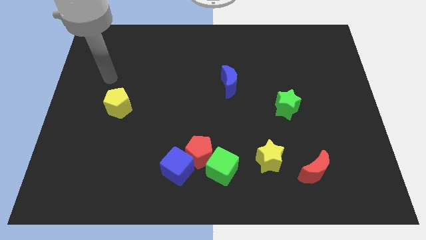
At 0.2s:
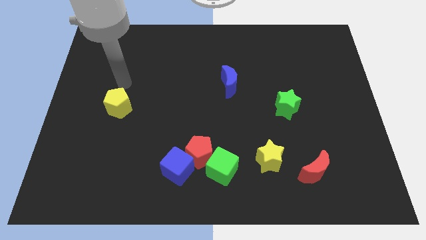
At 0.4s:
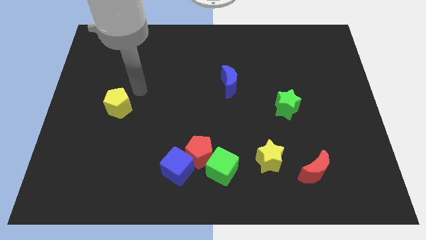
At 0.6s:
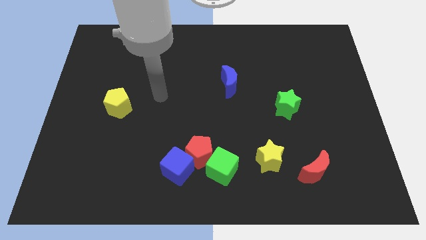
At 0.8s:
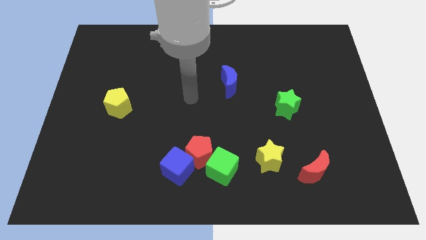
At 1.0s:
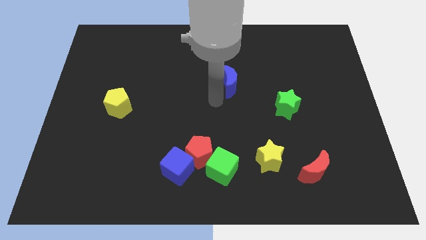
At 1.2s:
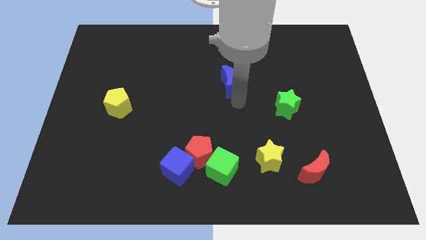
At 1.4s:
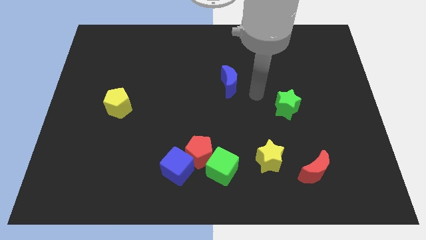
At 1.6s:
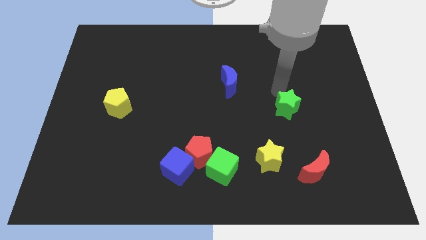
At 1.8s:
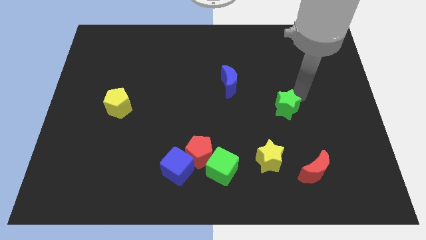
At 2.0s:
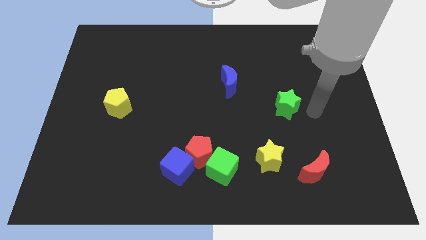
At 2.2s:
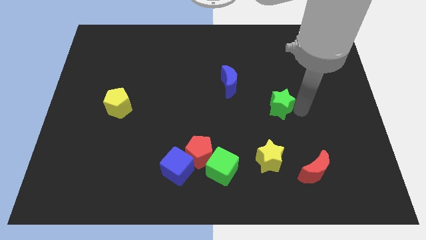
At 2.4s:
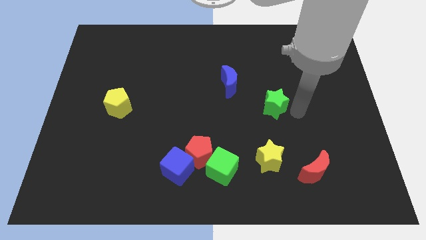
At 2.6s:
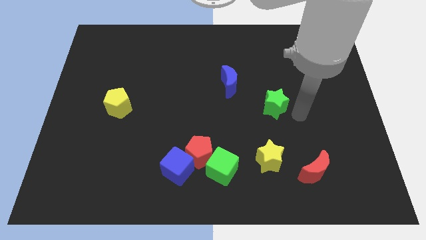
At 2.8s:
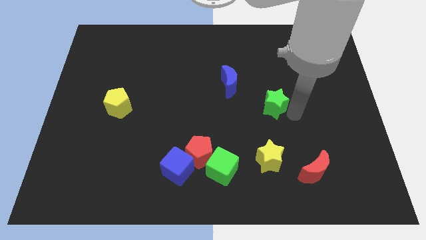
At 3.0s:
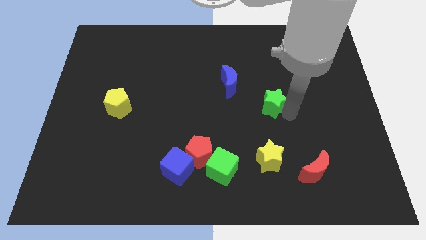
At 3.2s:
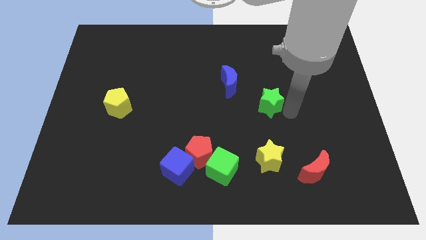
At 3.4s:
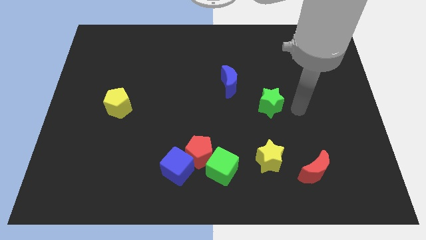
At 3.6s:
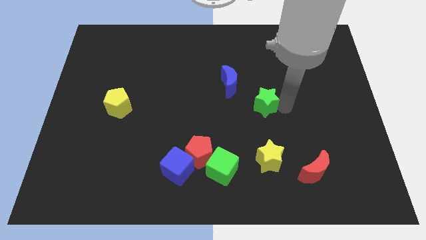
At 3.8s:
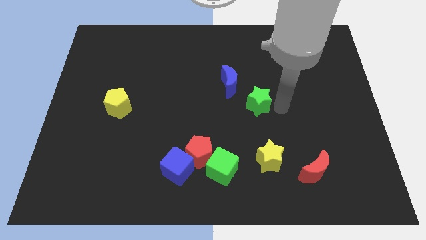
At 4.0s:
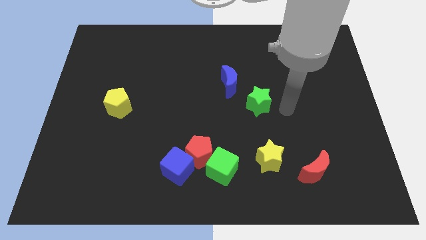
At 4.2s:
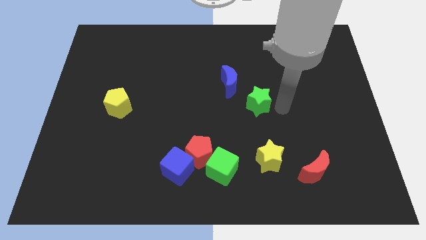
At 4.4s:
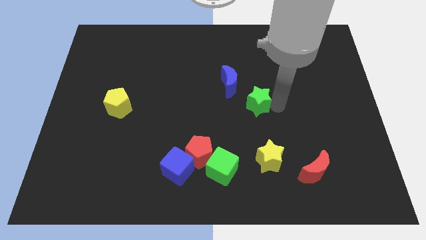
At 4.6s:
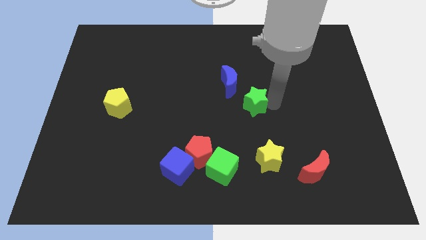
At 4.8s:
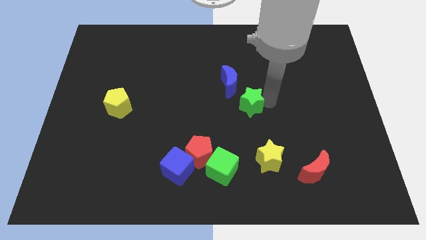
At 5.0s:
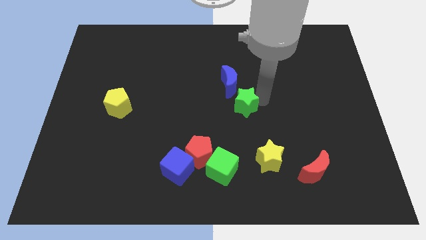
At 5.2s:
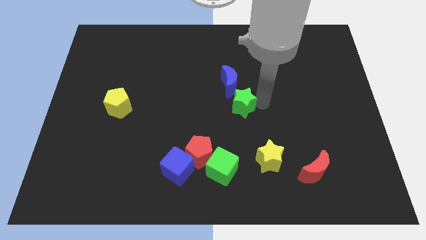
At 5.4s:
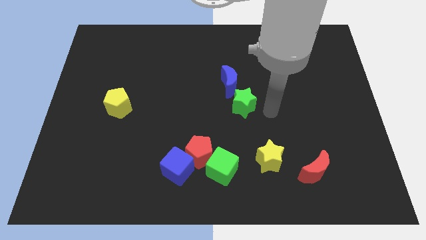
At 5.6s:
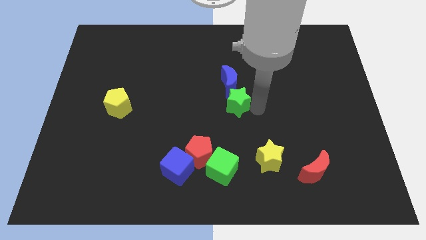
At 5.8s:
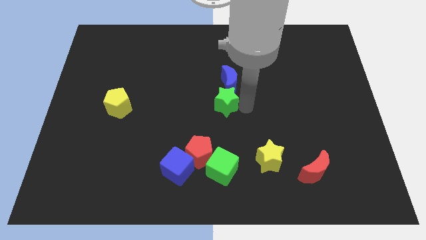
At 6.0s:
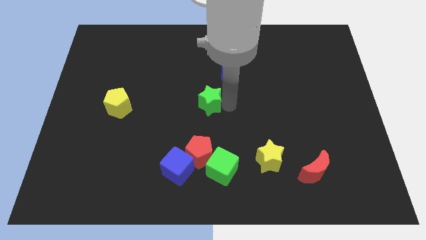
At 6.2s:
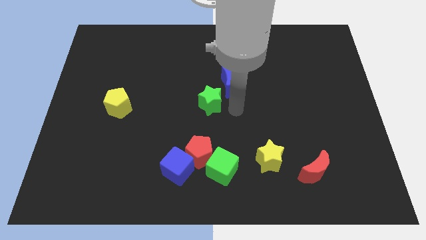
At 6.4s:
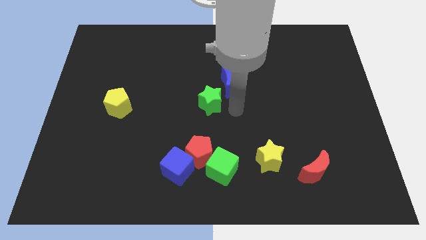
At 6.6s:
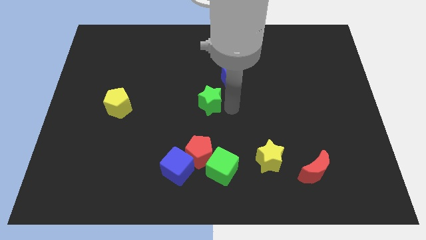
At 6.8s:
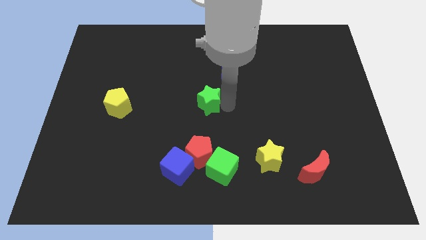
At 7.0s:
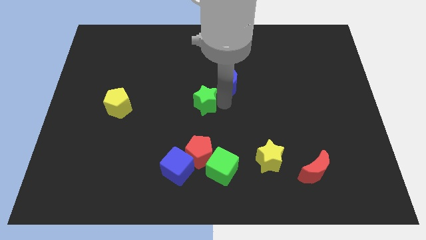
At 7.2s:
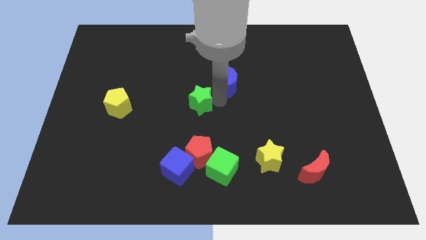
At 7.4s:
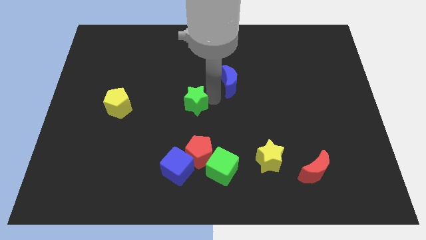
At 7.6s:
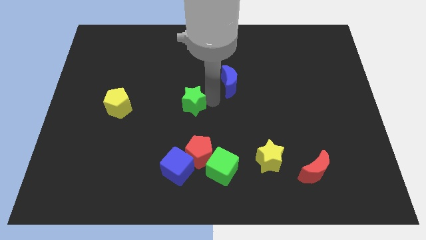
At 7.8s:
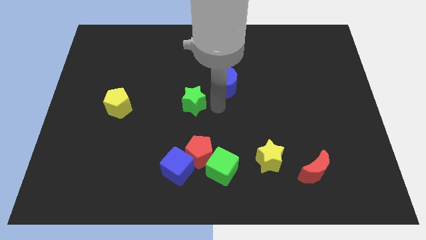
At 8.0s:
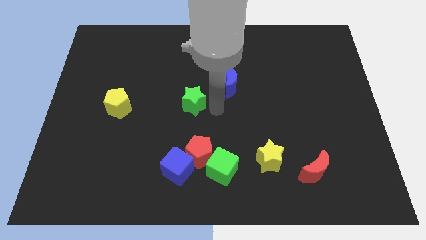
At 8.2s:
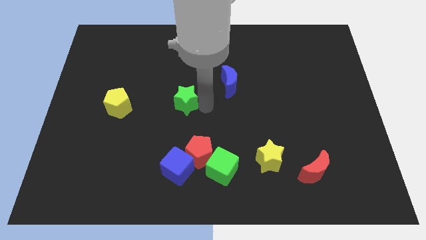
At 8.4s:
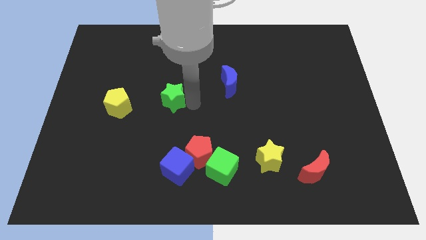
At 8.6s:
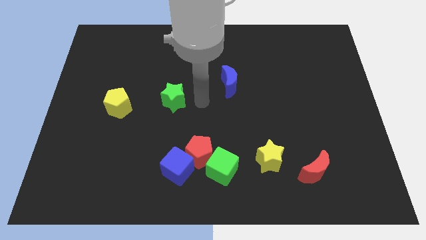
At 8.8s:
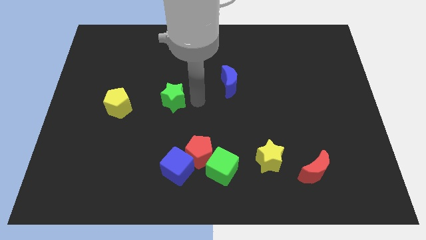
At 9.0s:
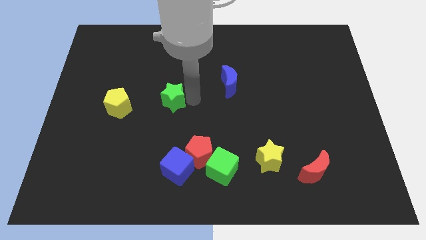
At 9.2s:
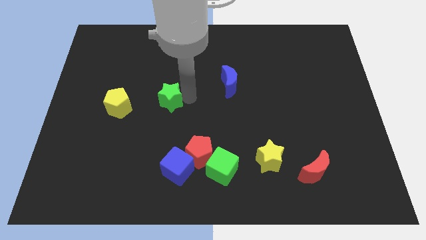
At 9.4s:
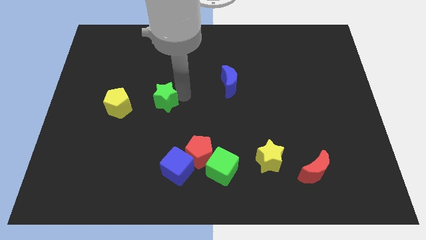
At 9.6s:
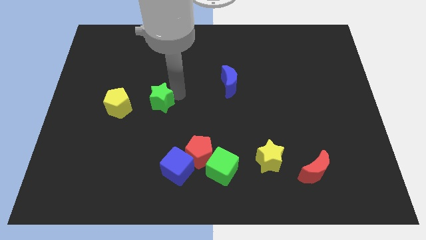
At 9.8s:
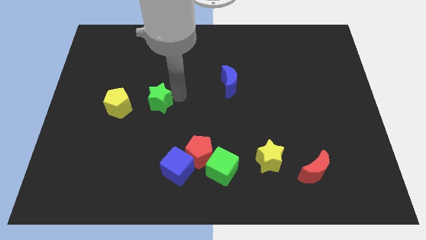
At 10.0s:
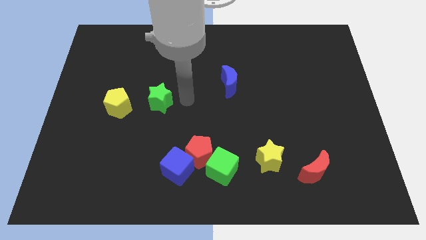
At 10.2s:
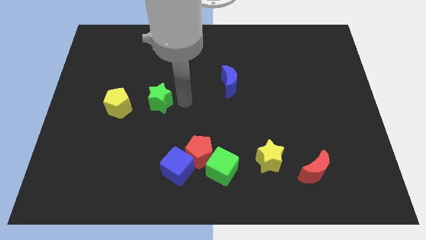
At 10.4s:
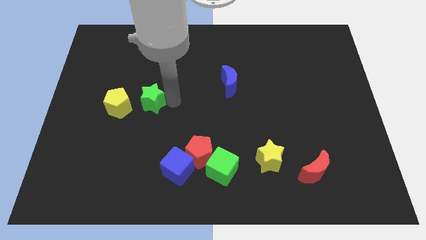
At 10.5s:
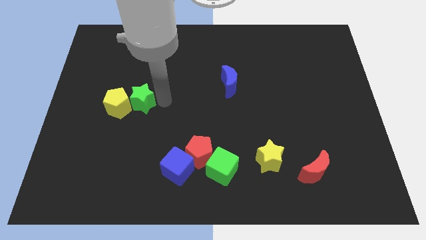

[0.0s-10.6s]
push the green star to the yellow pentagon

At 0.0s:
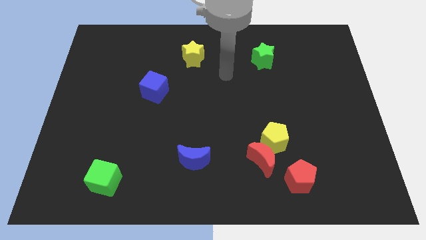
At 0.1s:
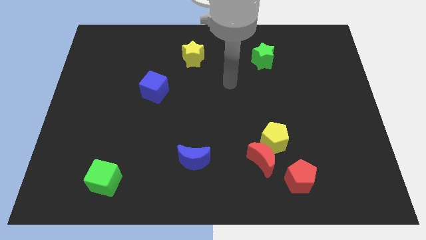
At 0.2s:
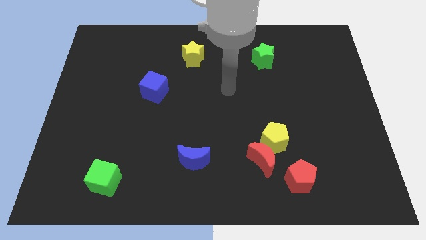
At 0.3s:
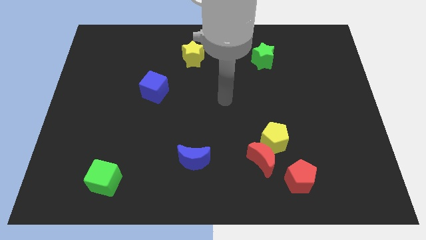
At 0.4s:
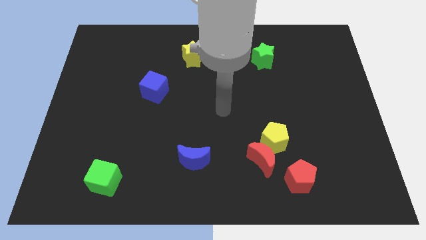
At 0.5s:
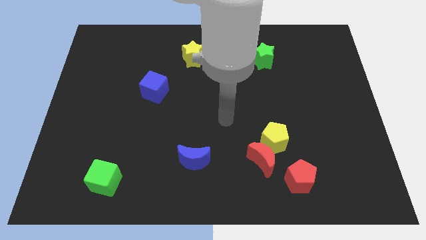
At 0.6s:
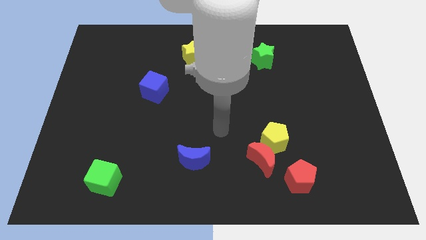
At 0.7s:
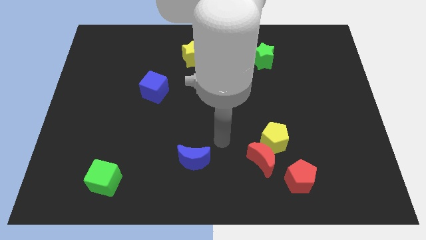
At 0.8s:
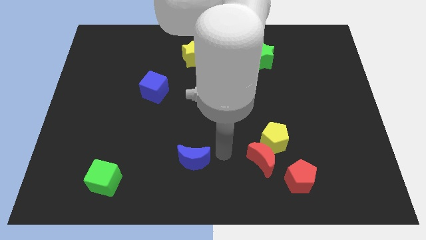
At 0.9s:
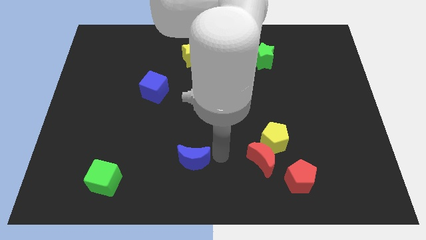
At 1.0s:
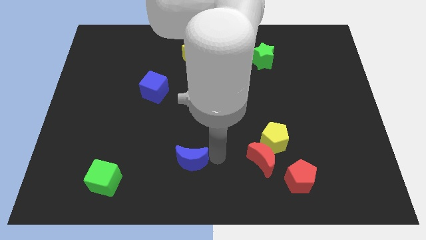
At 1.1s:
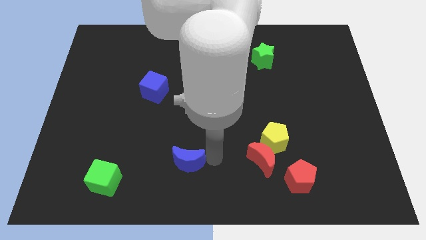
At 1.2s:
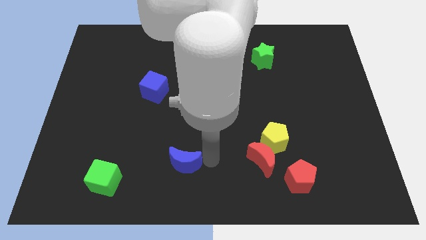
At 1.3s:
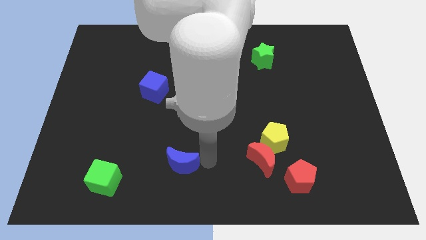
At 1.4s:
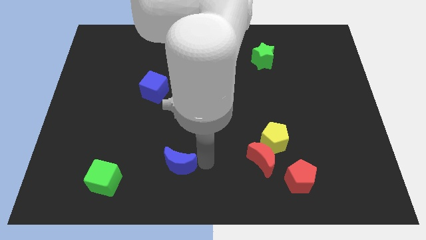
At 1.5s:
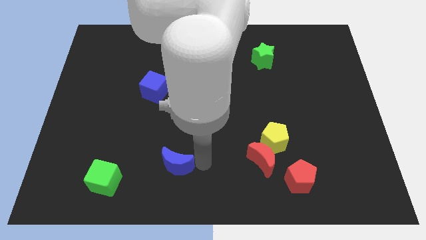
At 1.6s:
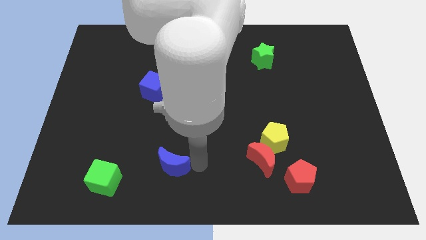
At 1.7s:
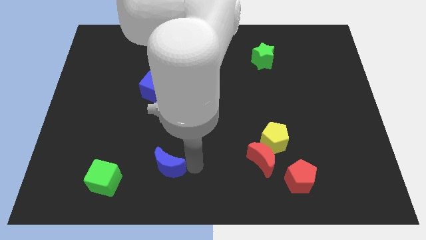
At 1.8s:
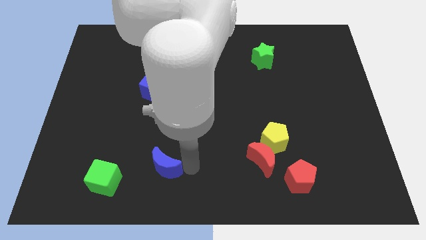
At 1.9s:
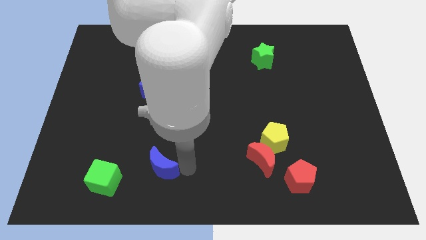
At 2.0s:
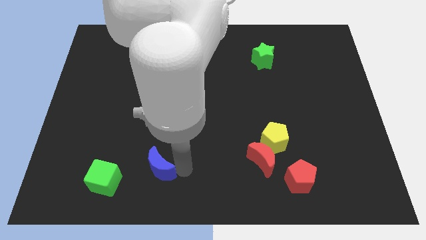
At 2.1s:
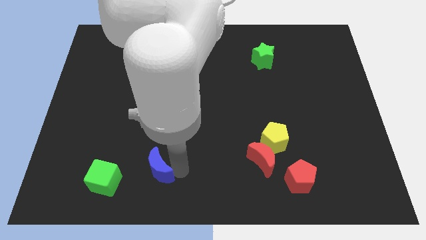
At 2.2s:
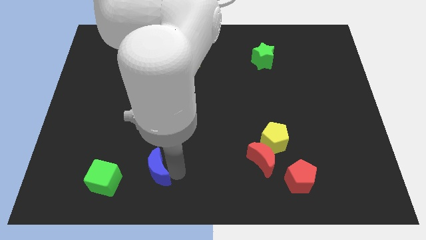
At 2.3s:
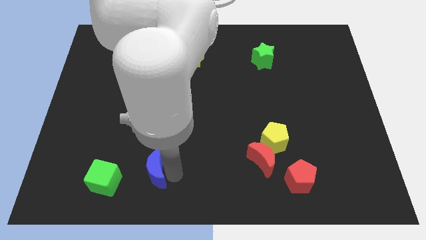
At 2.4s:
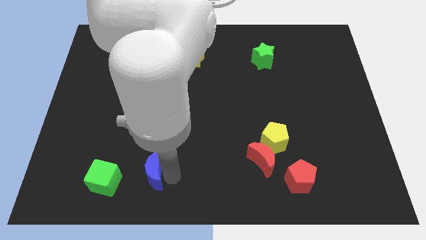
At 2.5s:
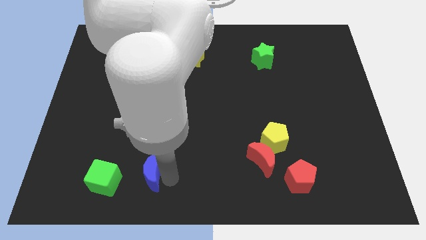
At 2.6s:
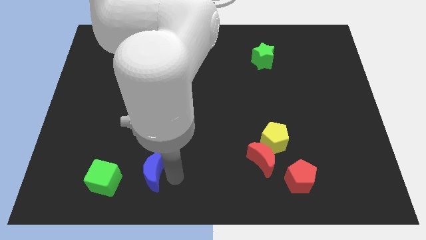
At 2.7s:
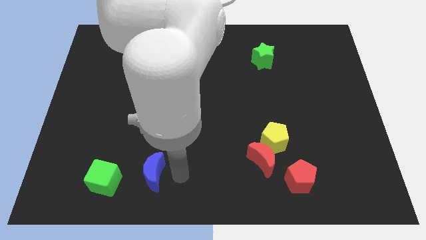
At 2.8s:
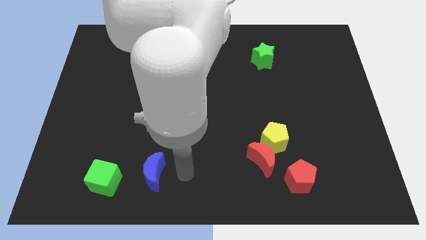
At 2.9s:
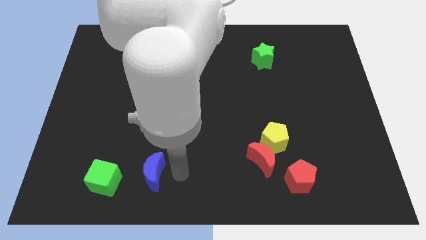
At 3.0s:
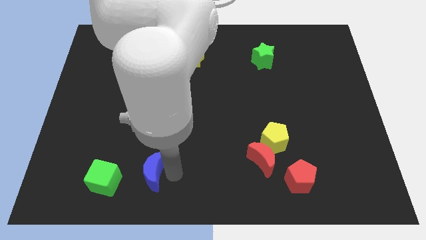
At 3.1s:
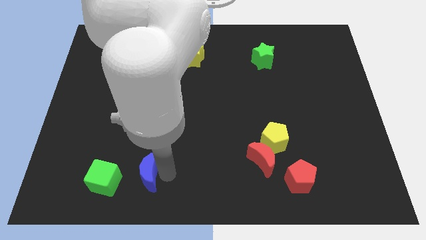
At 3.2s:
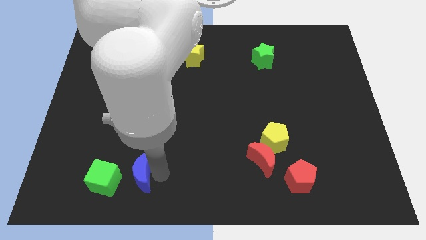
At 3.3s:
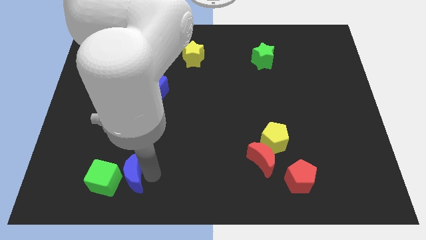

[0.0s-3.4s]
push the blue moon to the green cube
